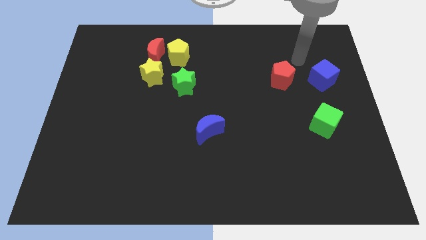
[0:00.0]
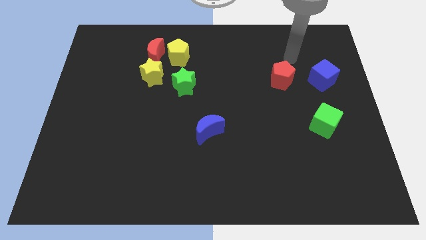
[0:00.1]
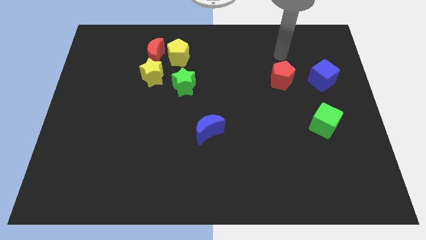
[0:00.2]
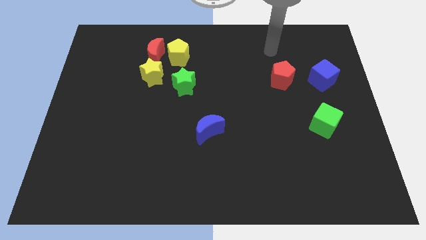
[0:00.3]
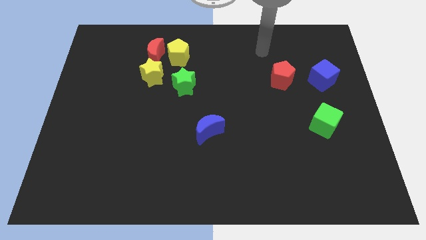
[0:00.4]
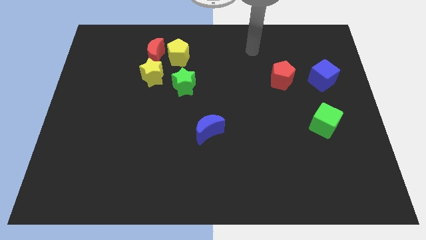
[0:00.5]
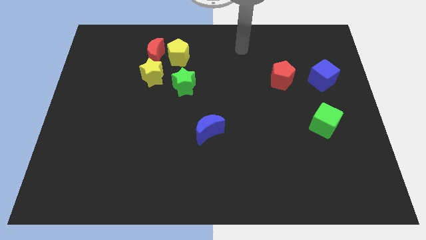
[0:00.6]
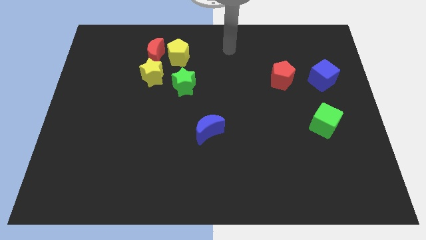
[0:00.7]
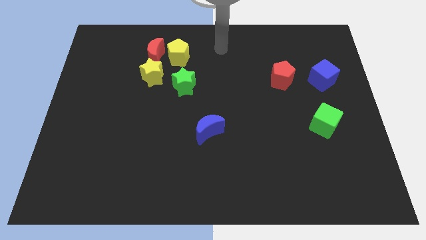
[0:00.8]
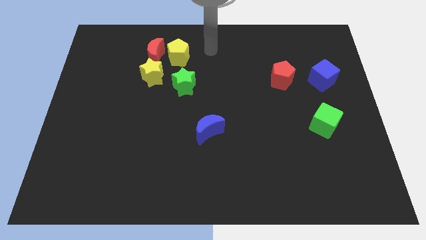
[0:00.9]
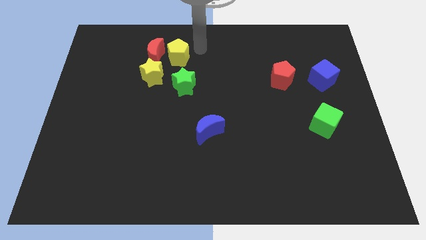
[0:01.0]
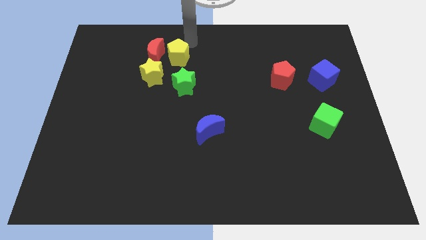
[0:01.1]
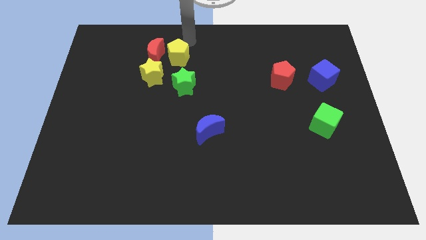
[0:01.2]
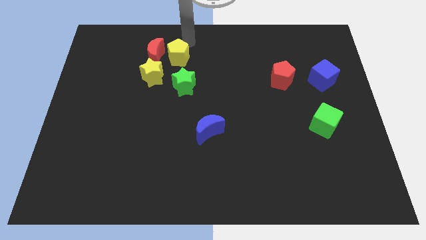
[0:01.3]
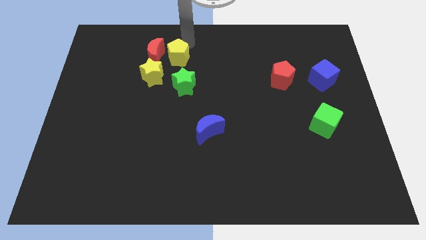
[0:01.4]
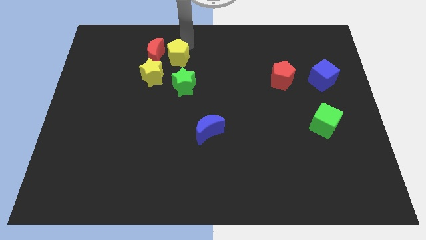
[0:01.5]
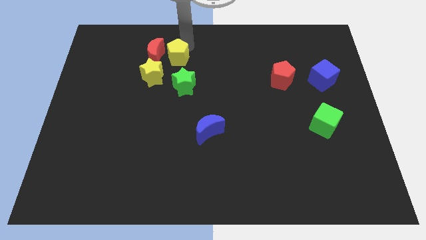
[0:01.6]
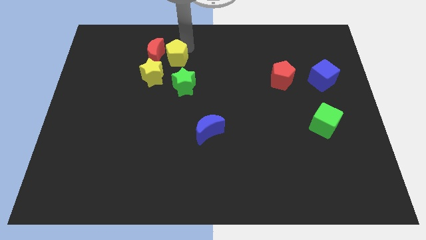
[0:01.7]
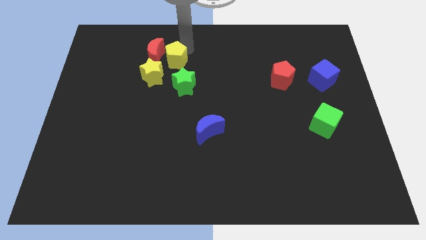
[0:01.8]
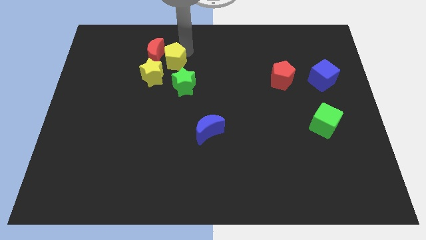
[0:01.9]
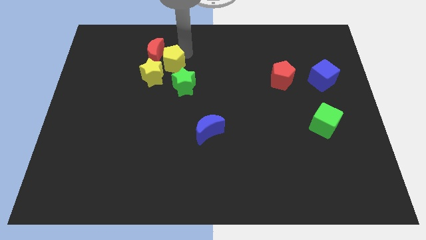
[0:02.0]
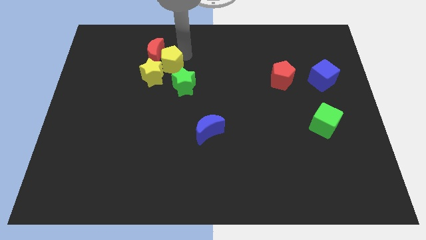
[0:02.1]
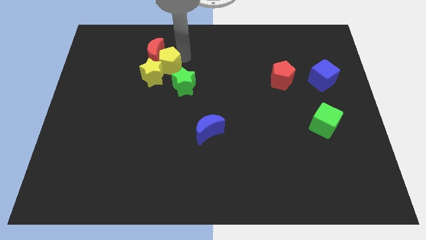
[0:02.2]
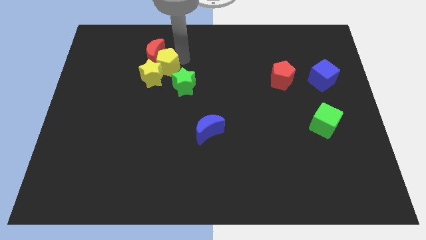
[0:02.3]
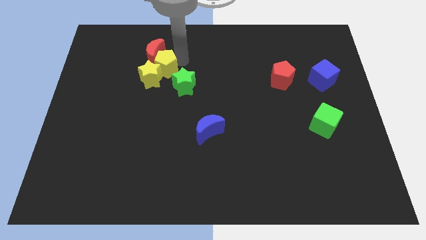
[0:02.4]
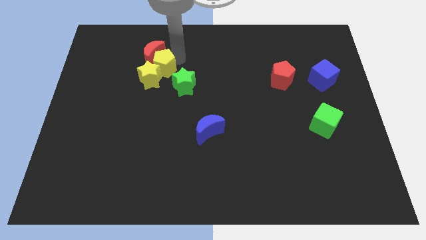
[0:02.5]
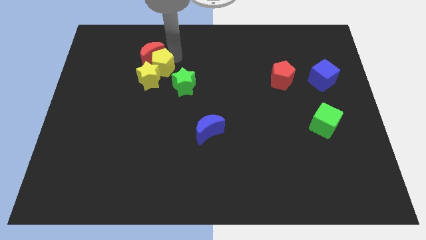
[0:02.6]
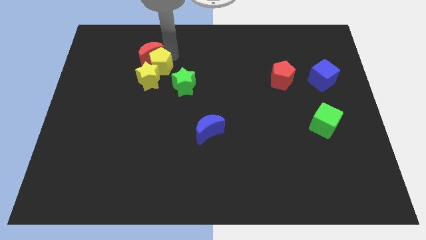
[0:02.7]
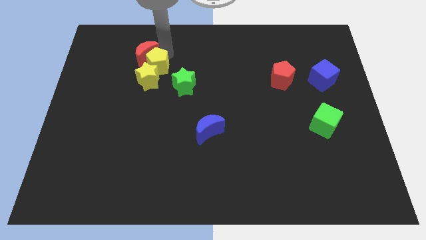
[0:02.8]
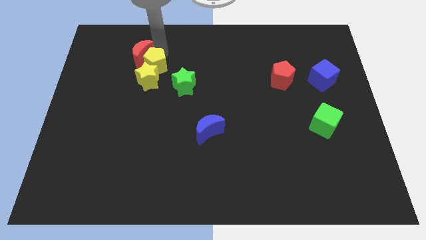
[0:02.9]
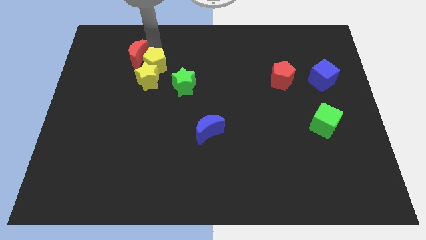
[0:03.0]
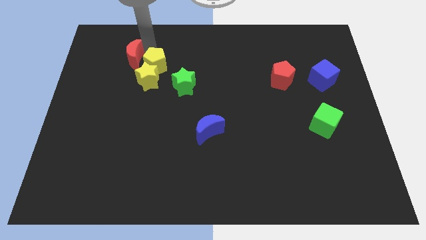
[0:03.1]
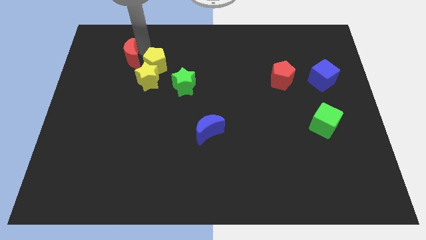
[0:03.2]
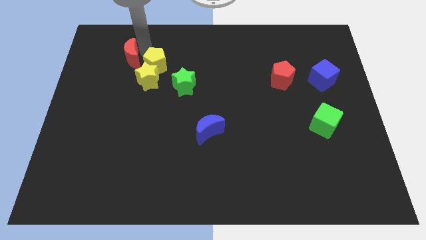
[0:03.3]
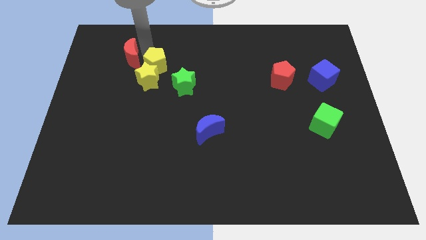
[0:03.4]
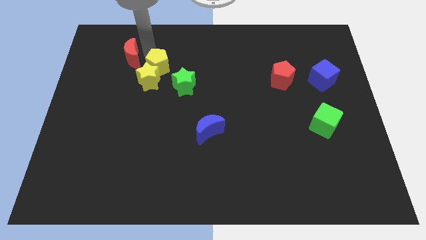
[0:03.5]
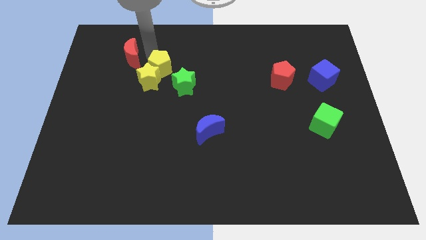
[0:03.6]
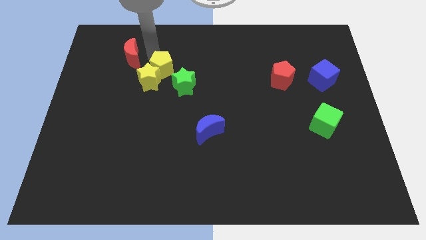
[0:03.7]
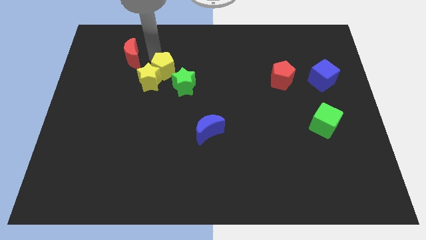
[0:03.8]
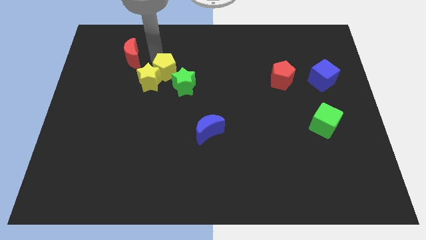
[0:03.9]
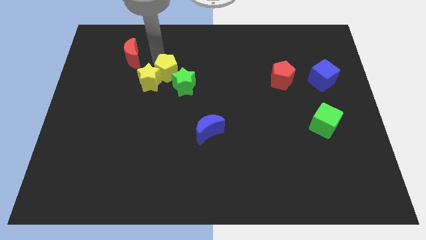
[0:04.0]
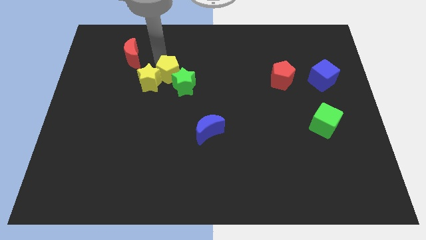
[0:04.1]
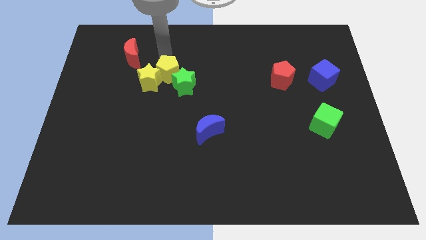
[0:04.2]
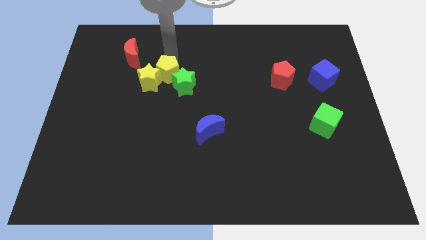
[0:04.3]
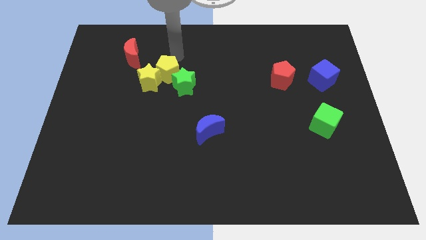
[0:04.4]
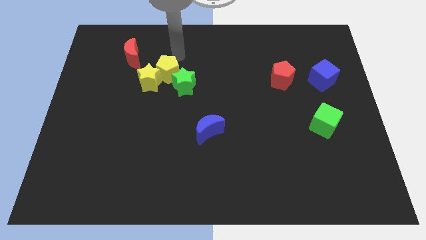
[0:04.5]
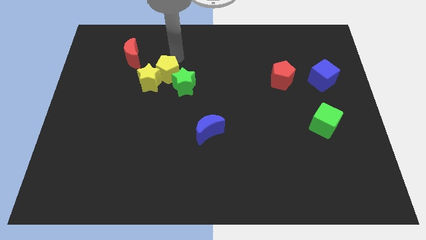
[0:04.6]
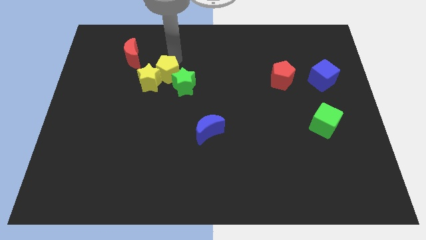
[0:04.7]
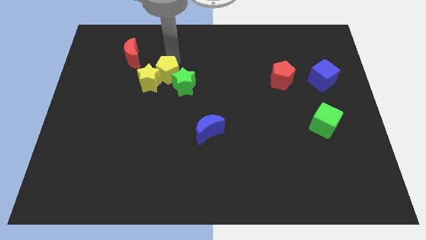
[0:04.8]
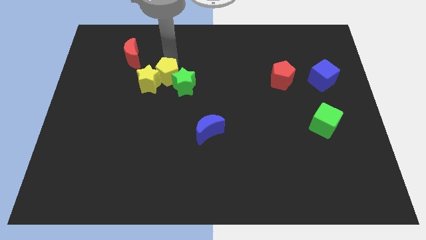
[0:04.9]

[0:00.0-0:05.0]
slightly move the yellow pentagon down

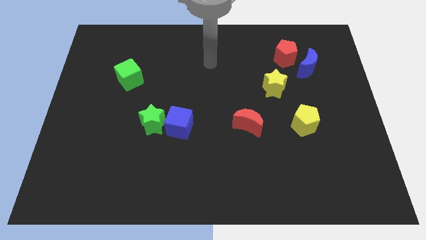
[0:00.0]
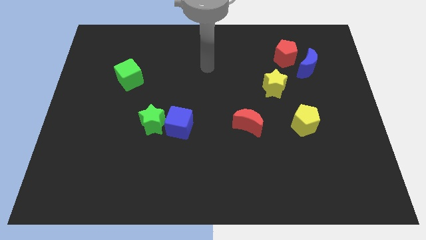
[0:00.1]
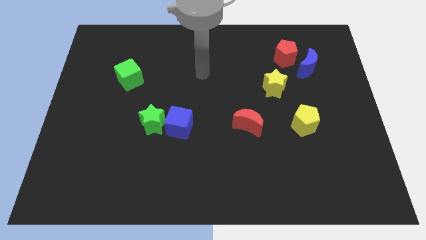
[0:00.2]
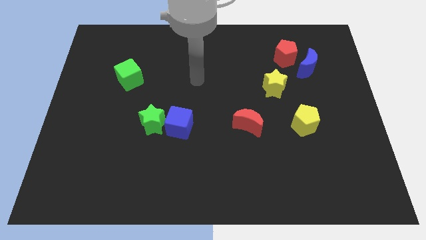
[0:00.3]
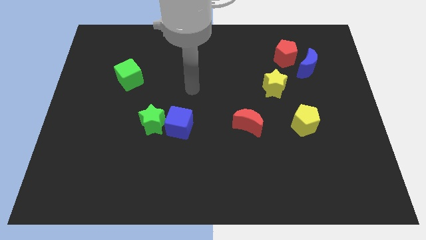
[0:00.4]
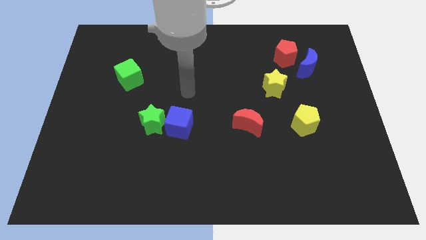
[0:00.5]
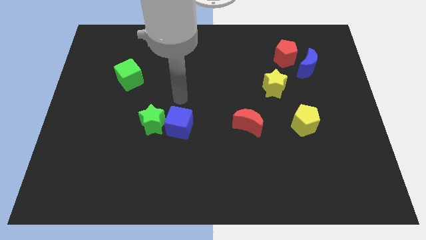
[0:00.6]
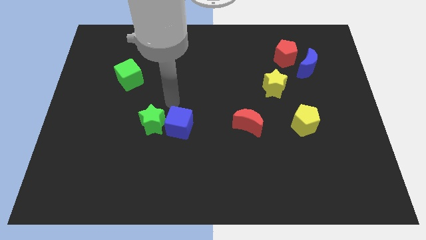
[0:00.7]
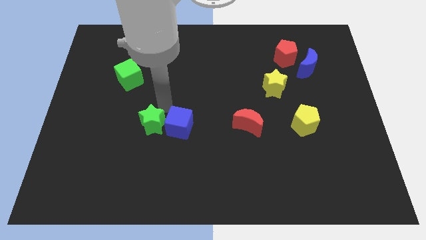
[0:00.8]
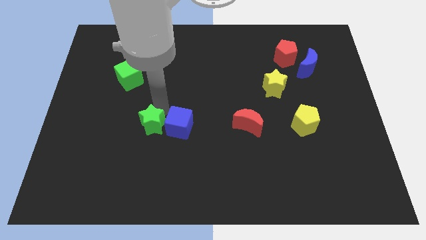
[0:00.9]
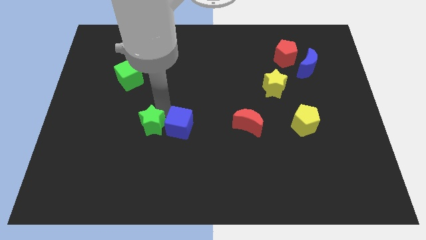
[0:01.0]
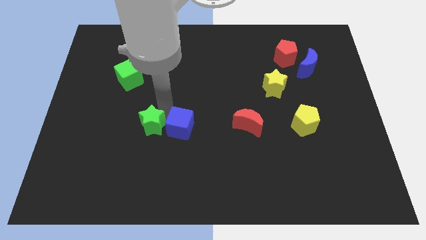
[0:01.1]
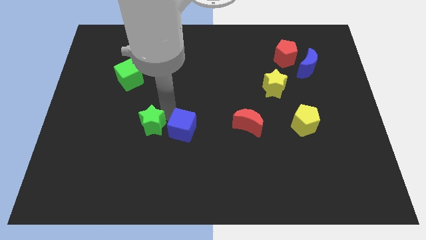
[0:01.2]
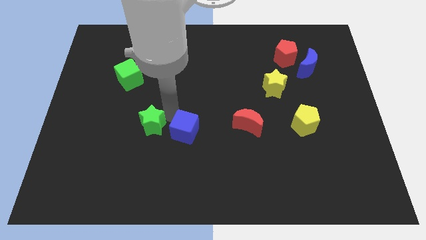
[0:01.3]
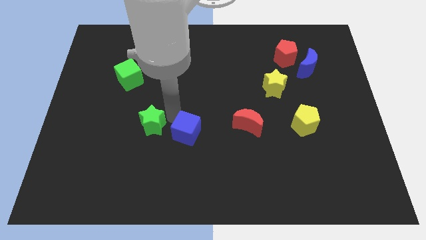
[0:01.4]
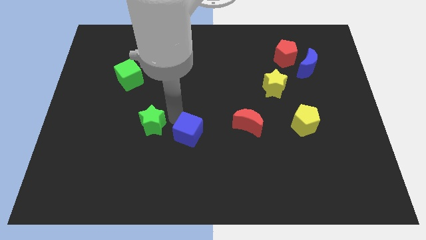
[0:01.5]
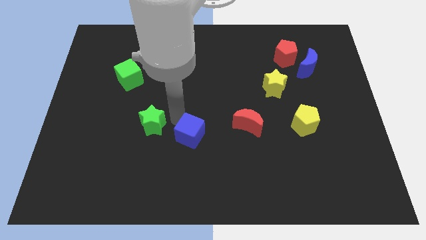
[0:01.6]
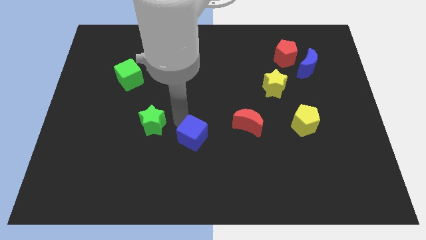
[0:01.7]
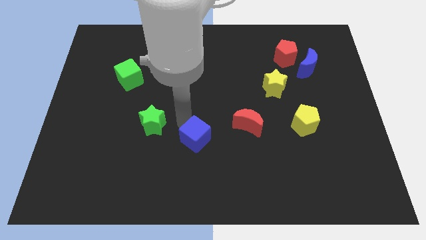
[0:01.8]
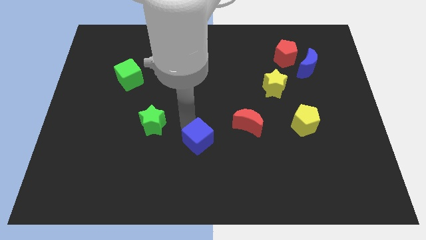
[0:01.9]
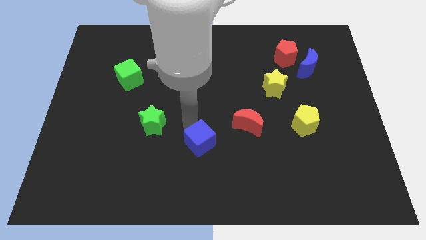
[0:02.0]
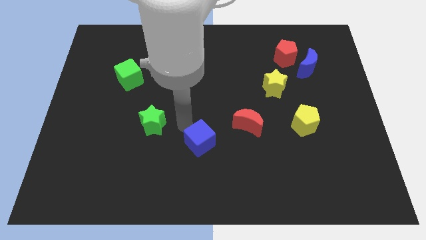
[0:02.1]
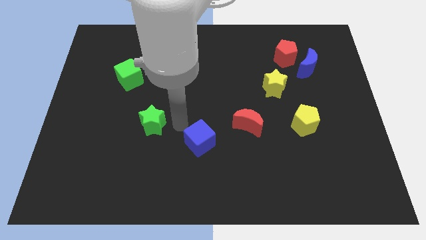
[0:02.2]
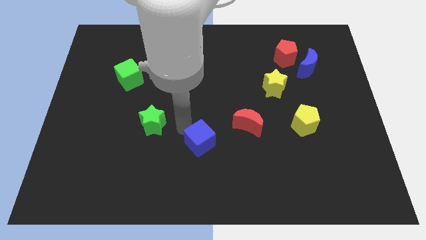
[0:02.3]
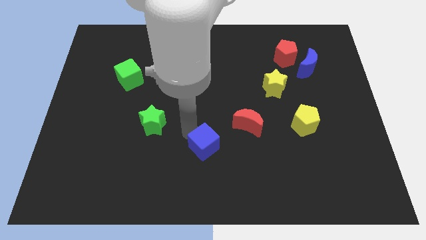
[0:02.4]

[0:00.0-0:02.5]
slightly slide the blue cube down and then to the right

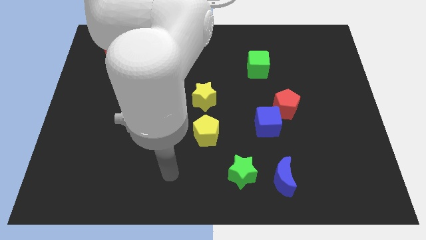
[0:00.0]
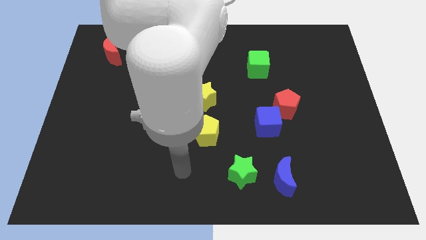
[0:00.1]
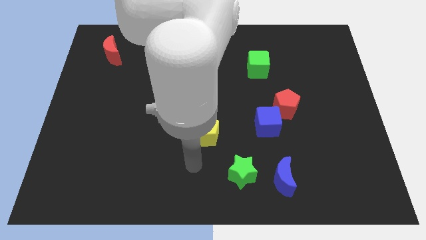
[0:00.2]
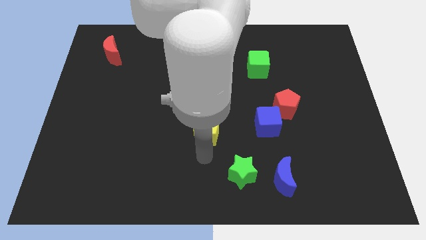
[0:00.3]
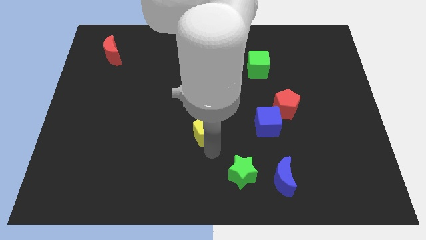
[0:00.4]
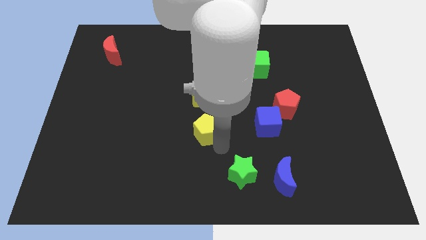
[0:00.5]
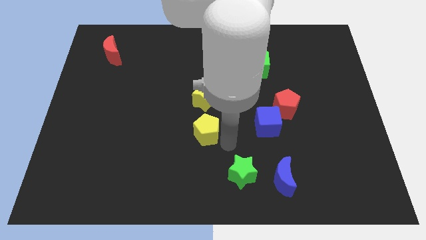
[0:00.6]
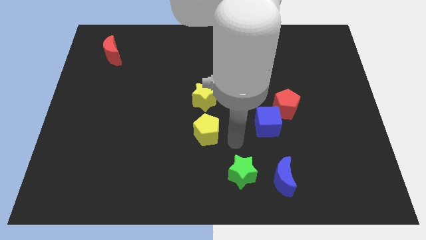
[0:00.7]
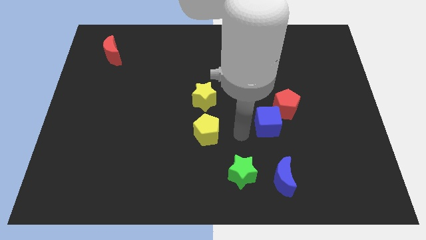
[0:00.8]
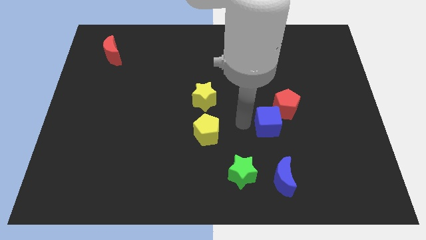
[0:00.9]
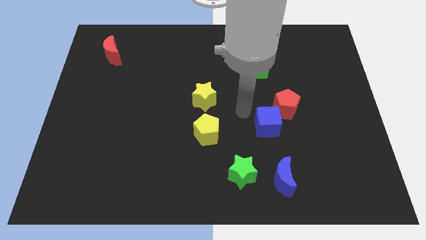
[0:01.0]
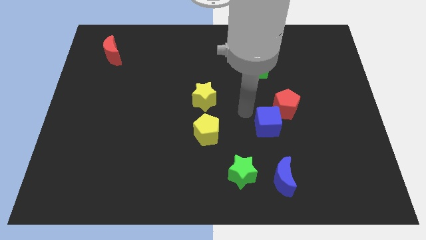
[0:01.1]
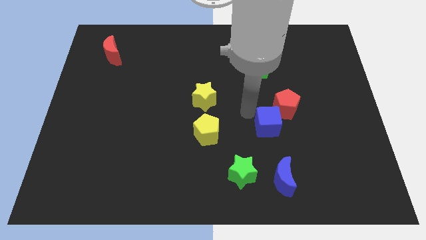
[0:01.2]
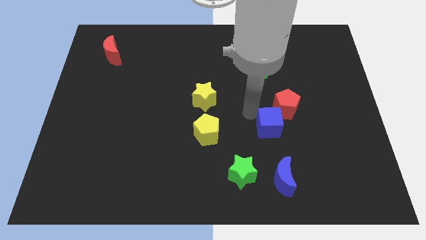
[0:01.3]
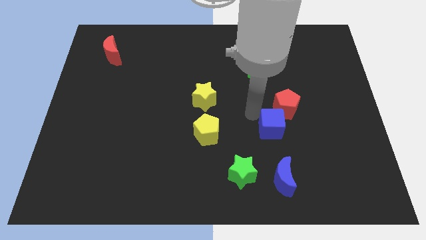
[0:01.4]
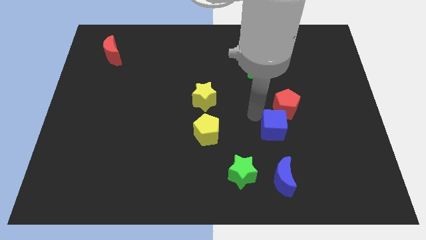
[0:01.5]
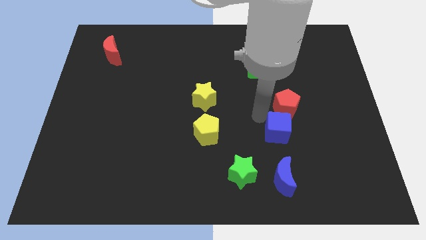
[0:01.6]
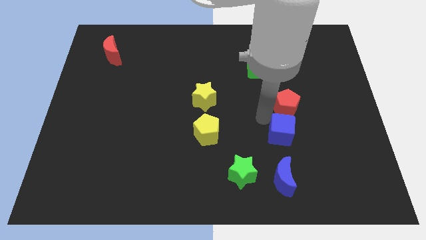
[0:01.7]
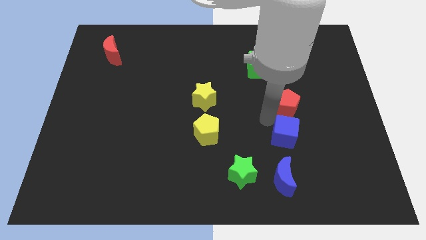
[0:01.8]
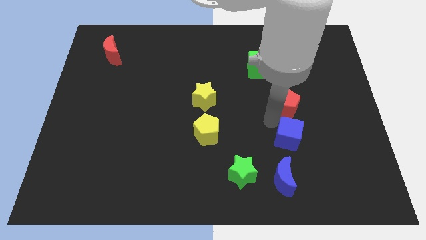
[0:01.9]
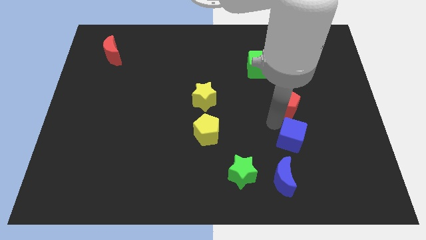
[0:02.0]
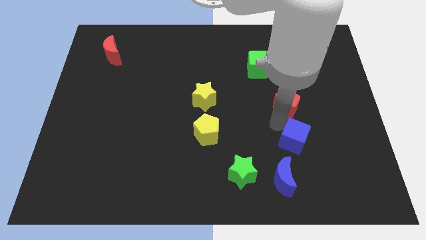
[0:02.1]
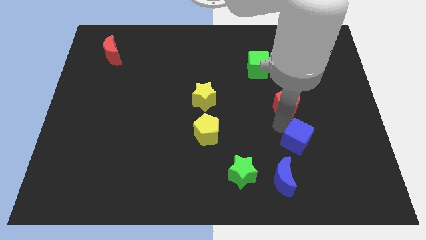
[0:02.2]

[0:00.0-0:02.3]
slide the blue cube a little downwards and right
